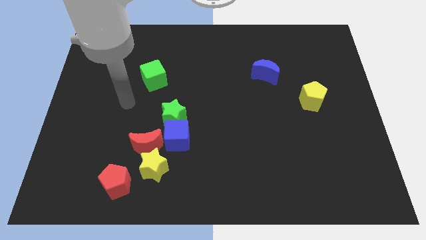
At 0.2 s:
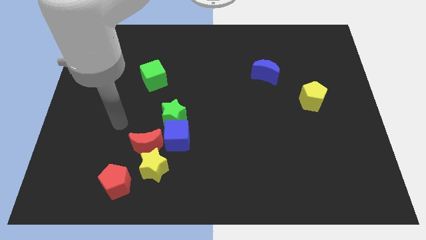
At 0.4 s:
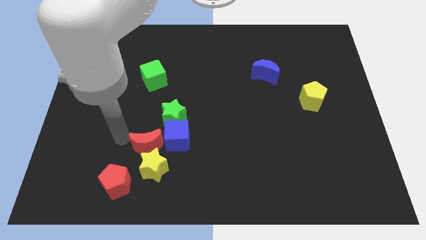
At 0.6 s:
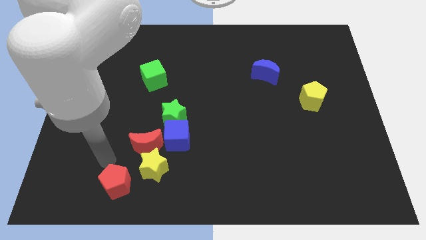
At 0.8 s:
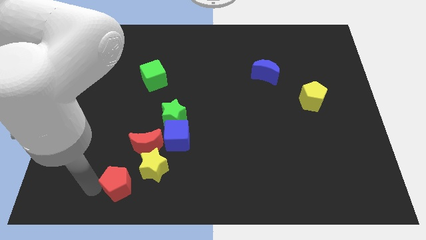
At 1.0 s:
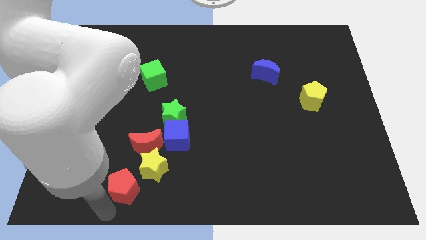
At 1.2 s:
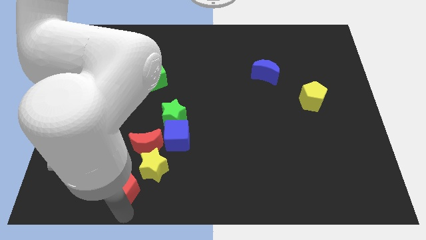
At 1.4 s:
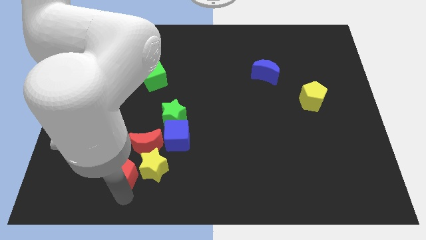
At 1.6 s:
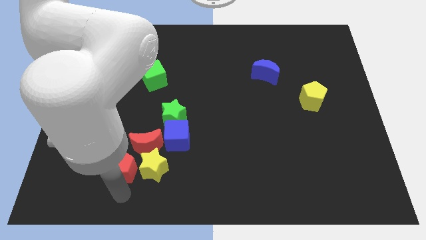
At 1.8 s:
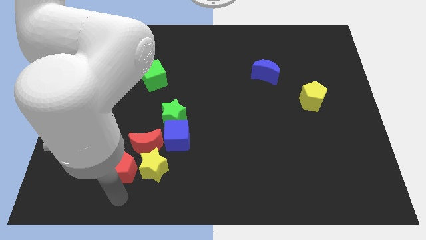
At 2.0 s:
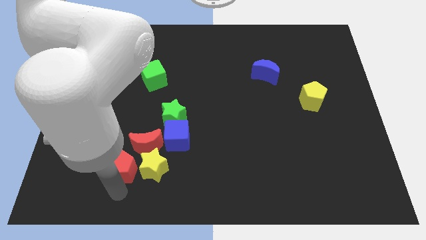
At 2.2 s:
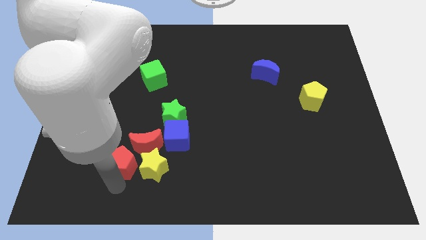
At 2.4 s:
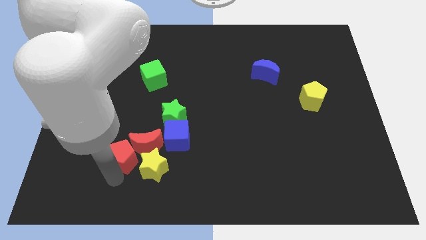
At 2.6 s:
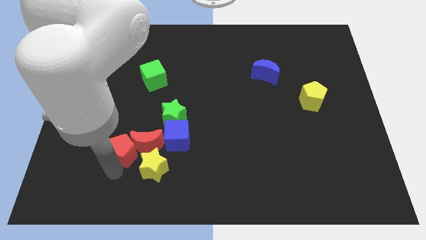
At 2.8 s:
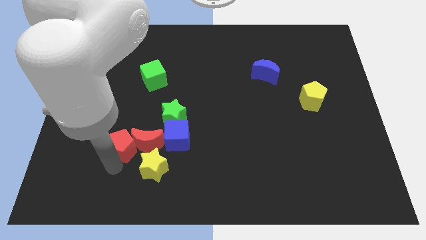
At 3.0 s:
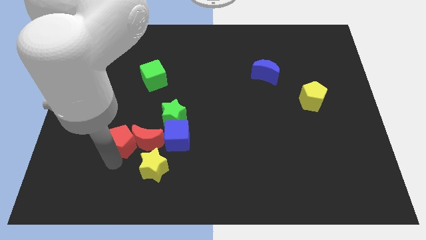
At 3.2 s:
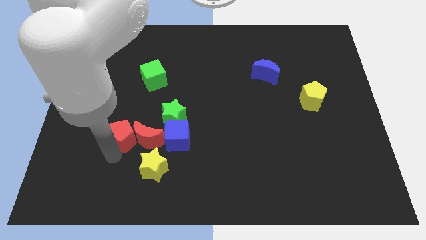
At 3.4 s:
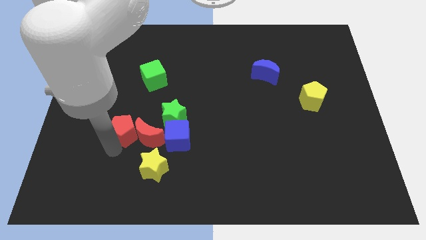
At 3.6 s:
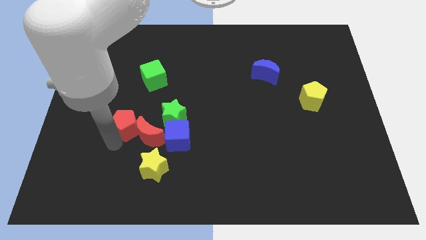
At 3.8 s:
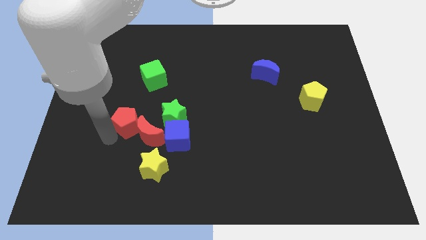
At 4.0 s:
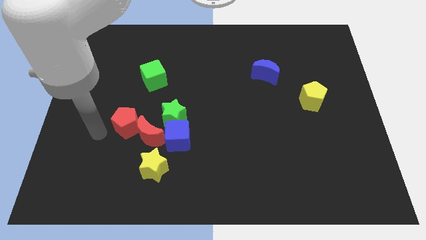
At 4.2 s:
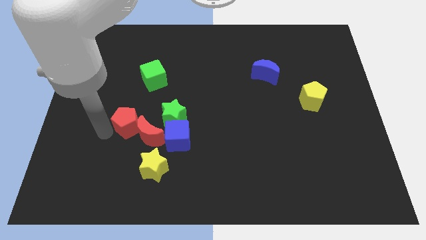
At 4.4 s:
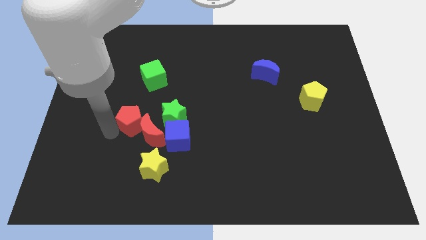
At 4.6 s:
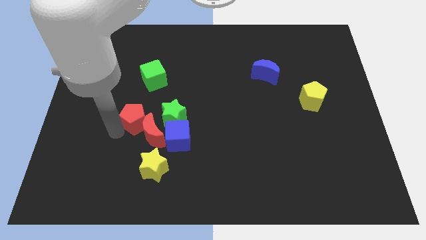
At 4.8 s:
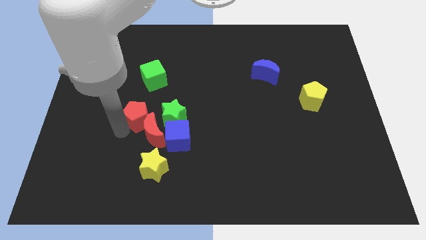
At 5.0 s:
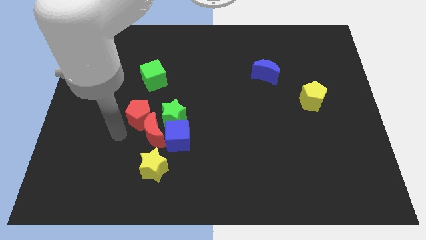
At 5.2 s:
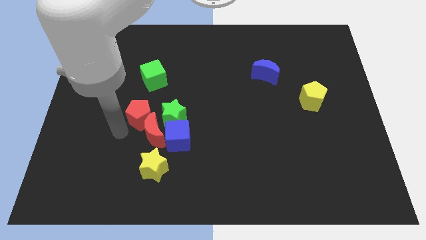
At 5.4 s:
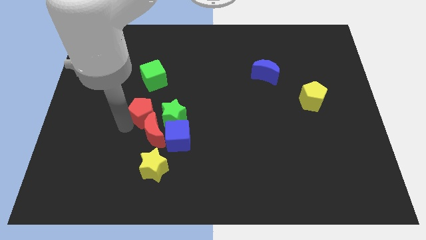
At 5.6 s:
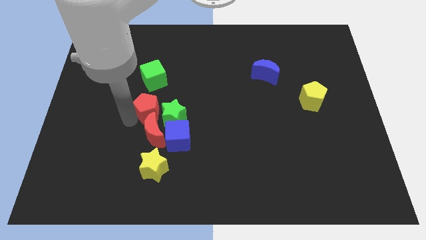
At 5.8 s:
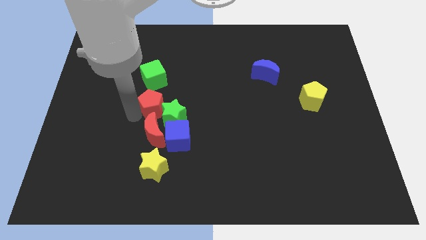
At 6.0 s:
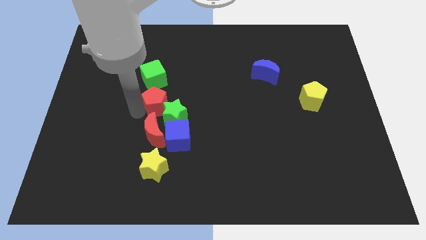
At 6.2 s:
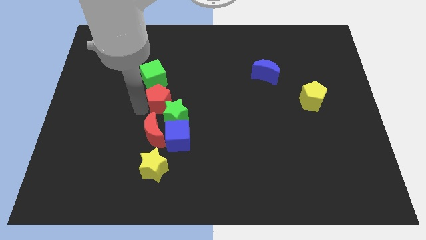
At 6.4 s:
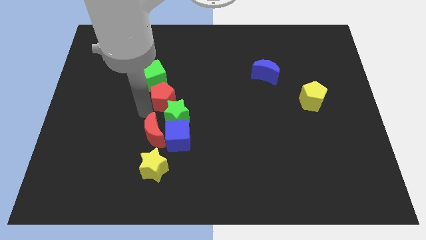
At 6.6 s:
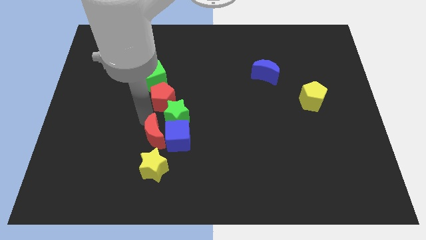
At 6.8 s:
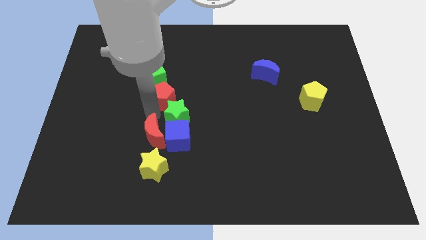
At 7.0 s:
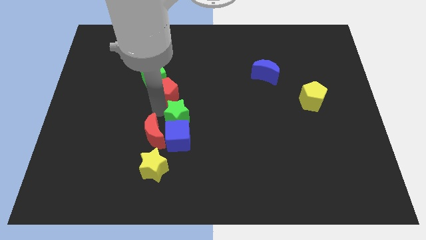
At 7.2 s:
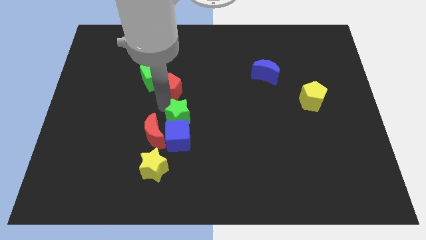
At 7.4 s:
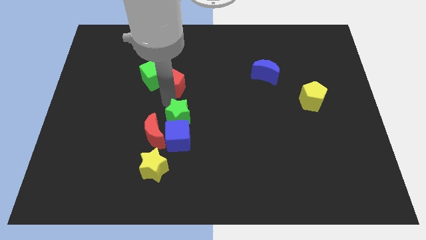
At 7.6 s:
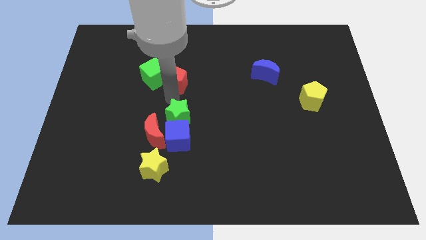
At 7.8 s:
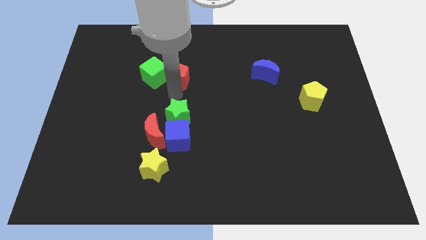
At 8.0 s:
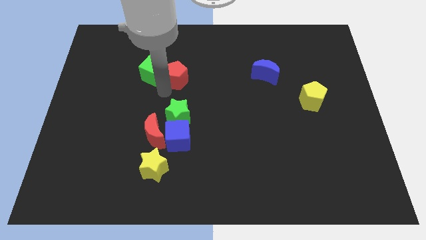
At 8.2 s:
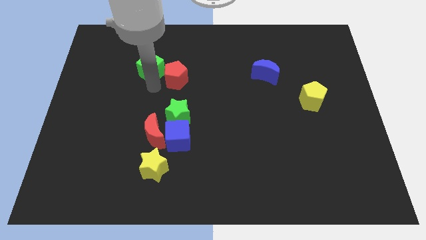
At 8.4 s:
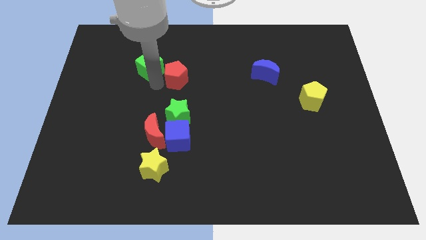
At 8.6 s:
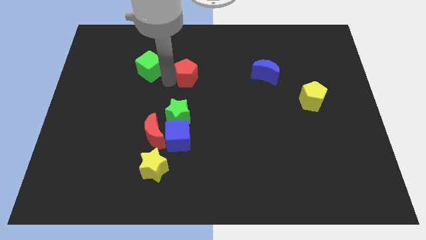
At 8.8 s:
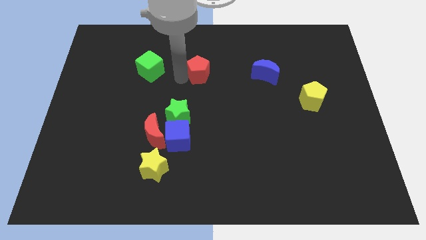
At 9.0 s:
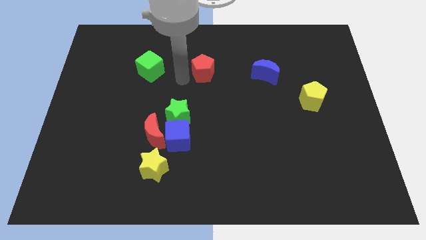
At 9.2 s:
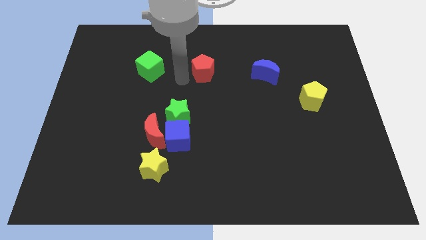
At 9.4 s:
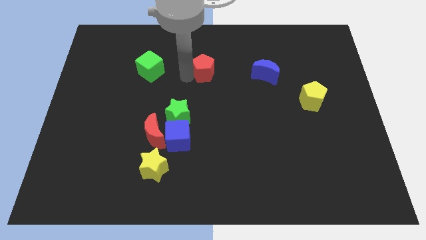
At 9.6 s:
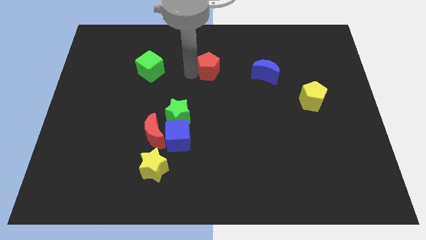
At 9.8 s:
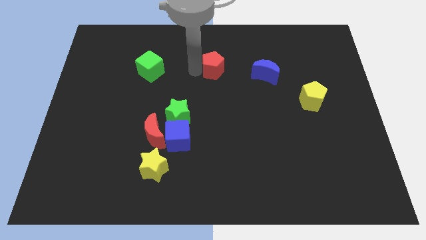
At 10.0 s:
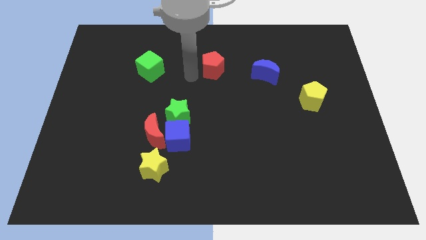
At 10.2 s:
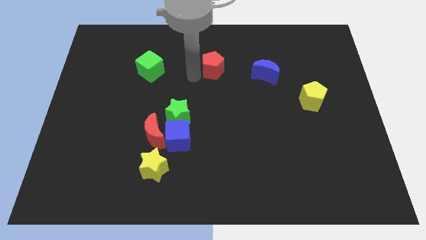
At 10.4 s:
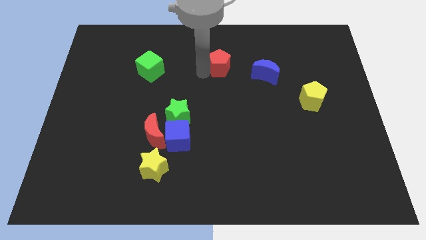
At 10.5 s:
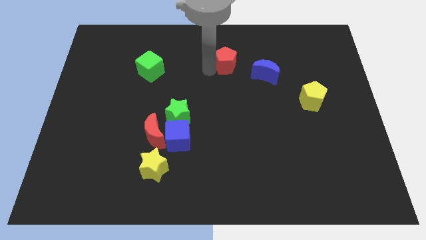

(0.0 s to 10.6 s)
move the red pentagon diagonally up and to the left of the blue moon

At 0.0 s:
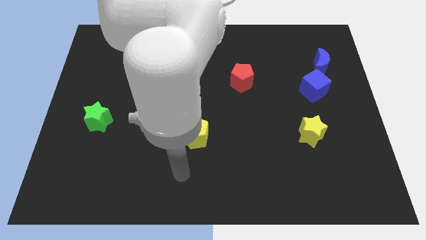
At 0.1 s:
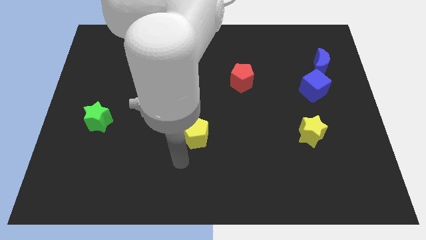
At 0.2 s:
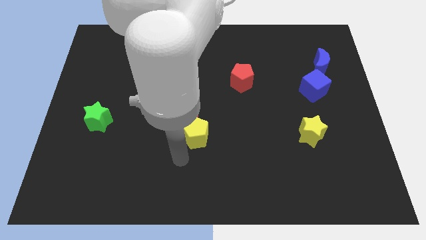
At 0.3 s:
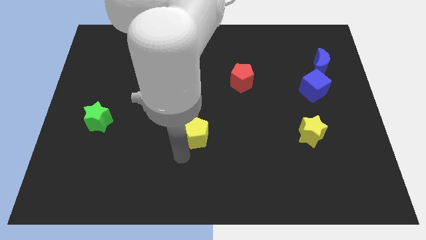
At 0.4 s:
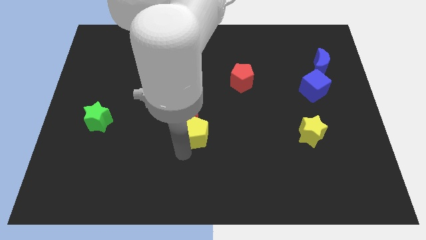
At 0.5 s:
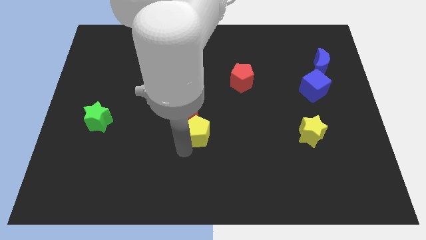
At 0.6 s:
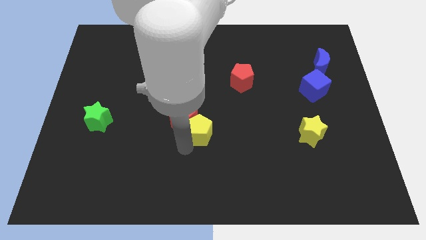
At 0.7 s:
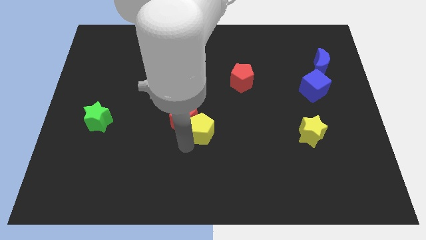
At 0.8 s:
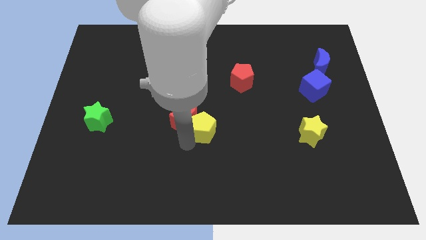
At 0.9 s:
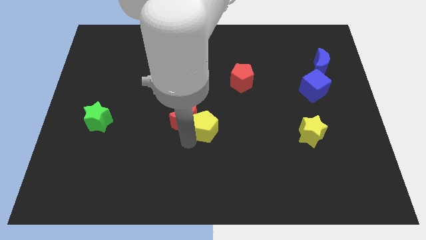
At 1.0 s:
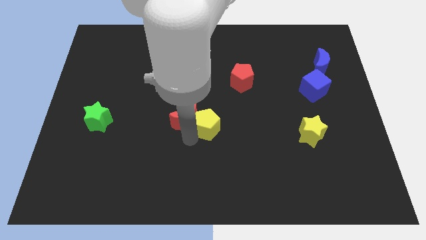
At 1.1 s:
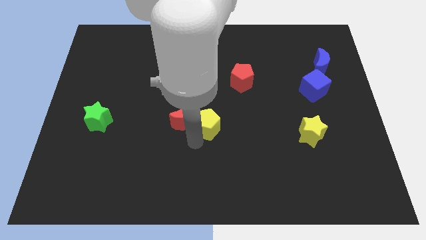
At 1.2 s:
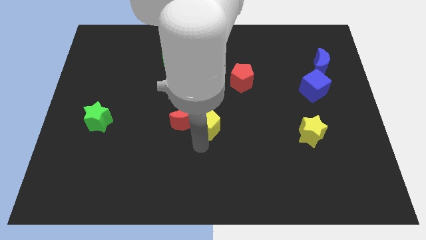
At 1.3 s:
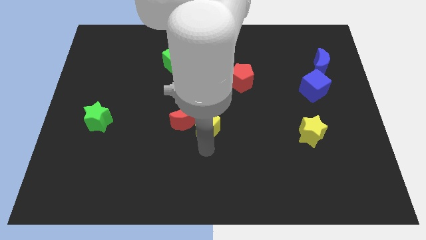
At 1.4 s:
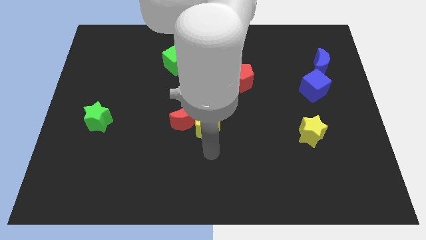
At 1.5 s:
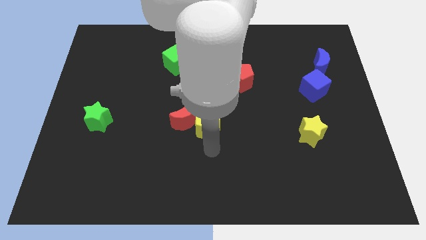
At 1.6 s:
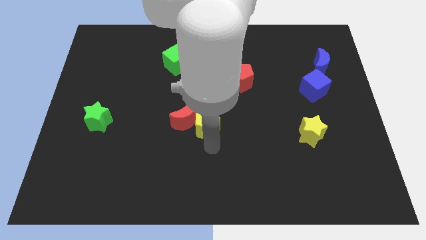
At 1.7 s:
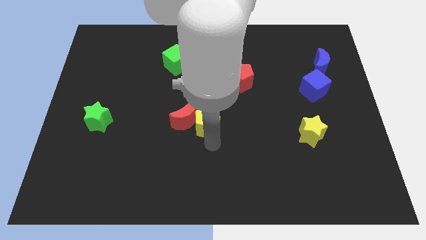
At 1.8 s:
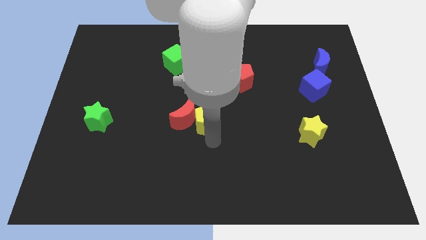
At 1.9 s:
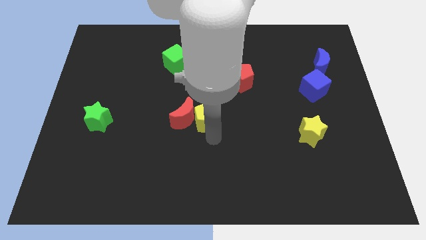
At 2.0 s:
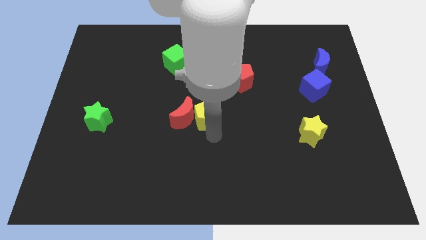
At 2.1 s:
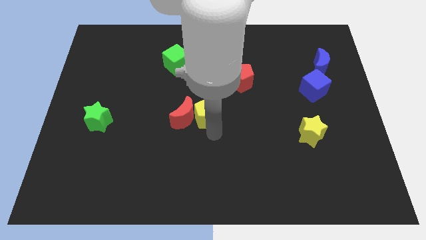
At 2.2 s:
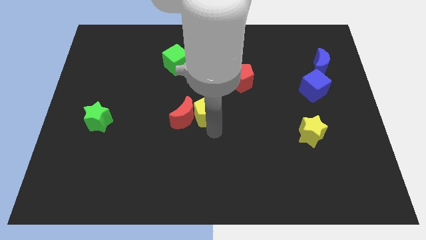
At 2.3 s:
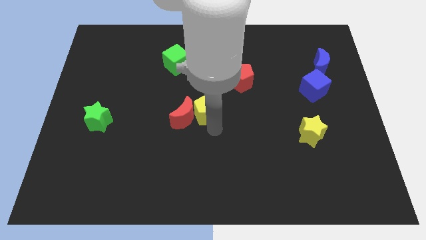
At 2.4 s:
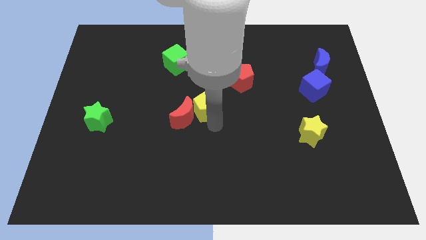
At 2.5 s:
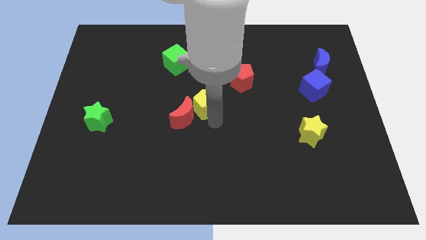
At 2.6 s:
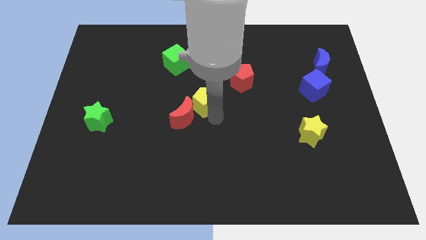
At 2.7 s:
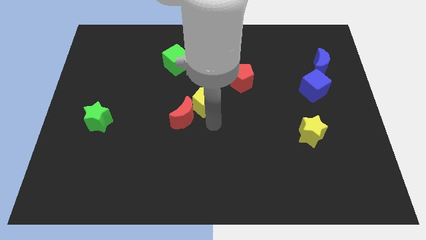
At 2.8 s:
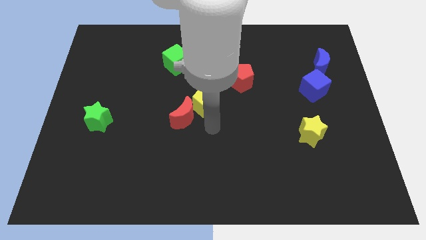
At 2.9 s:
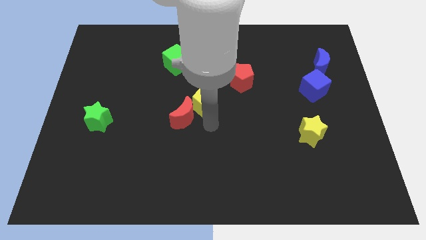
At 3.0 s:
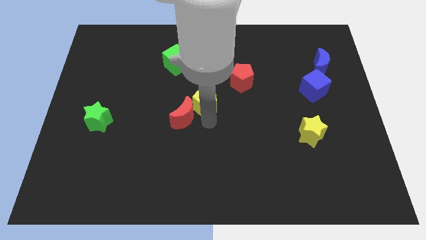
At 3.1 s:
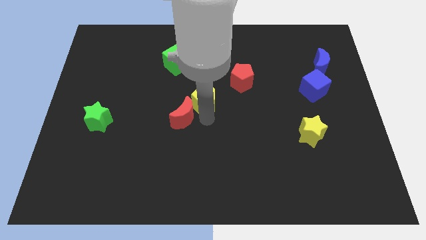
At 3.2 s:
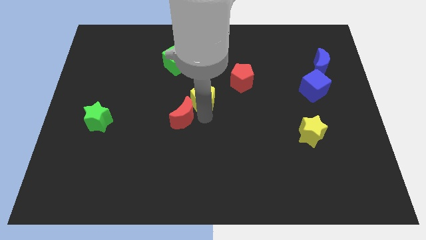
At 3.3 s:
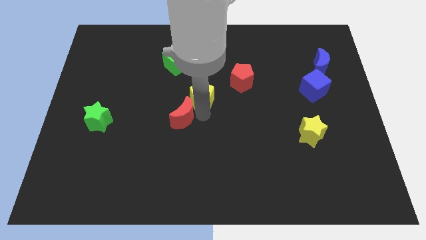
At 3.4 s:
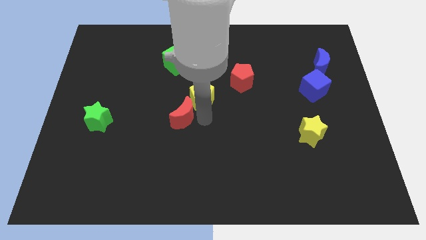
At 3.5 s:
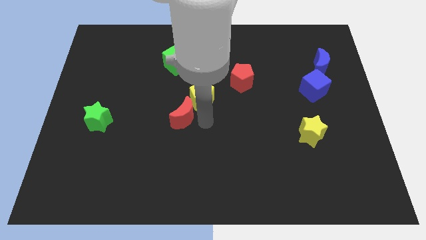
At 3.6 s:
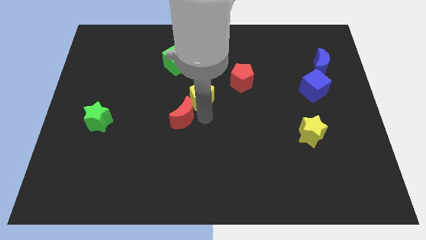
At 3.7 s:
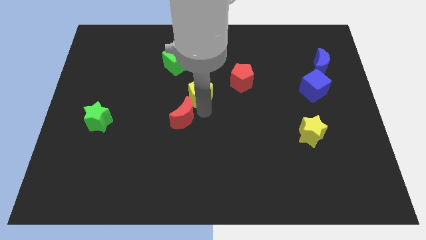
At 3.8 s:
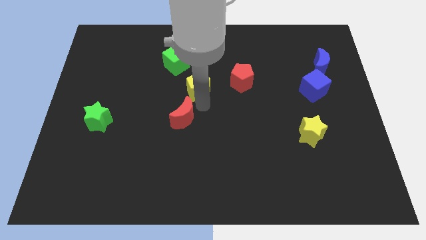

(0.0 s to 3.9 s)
move the yellow pentagon left of the red pentagon
